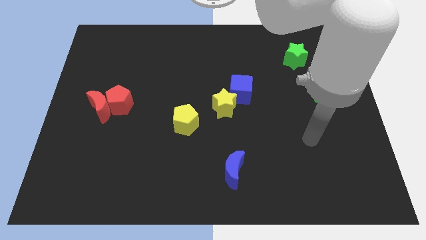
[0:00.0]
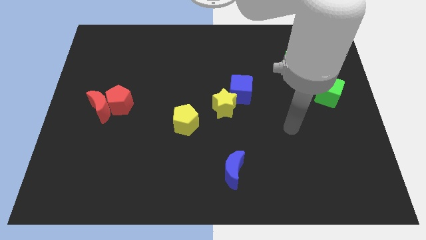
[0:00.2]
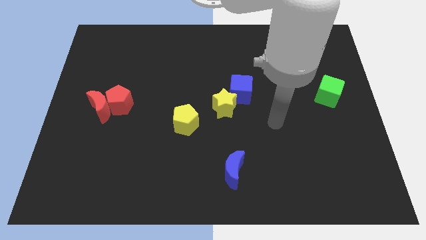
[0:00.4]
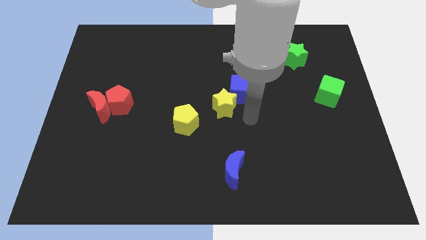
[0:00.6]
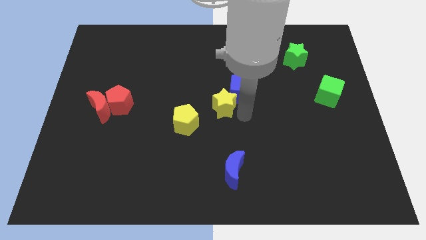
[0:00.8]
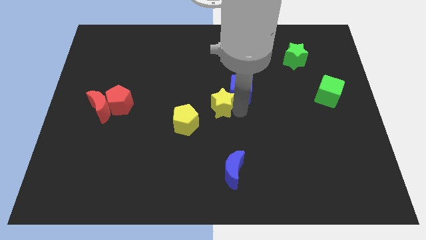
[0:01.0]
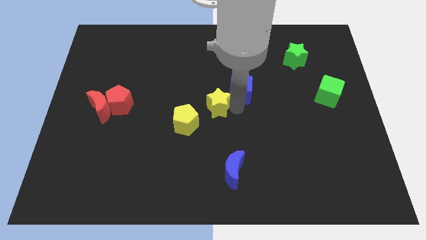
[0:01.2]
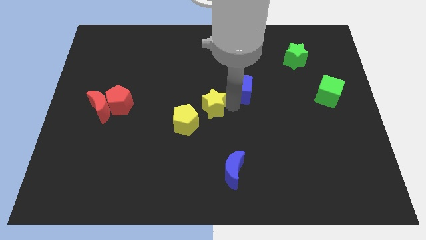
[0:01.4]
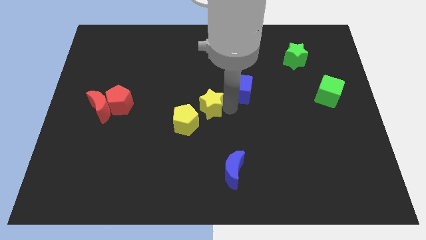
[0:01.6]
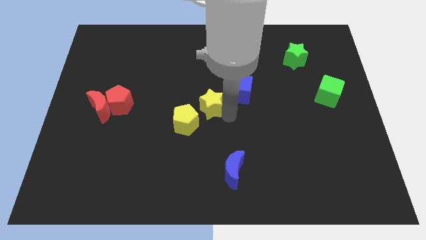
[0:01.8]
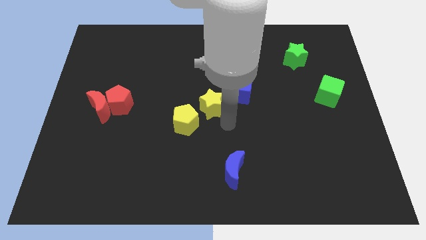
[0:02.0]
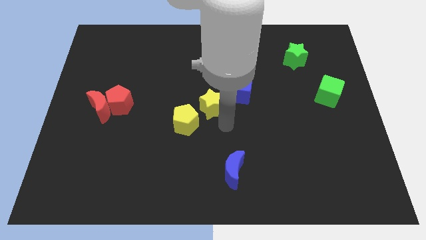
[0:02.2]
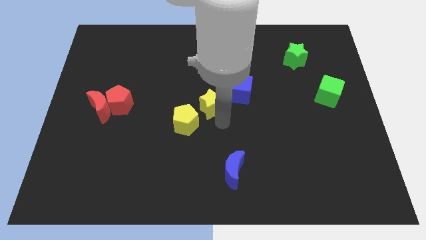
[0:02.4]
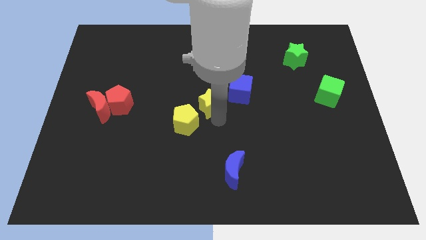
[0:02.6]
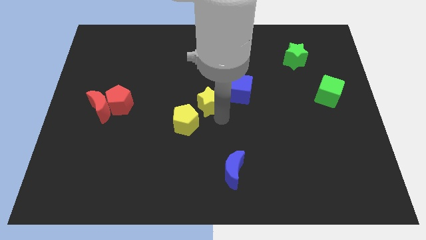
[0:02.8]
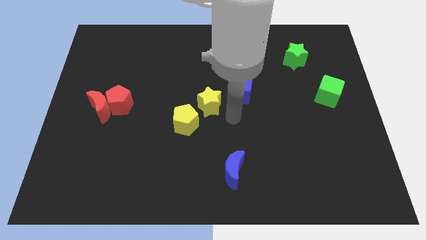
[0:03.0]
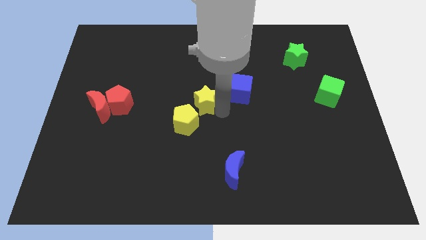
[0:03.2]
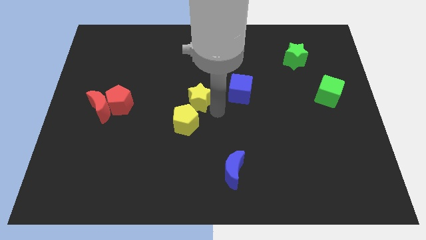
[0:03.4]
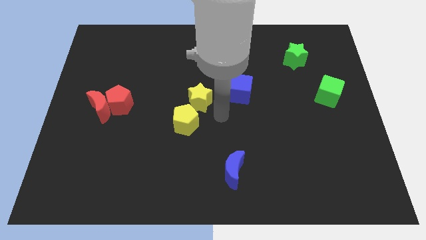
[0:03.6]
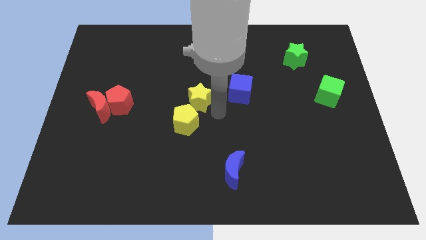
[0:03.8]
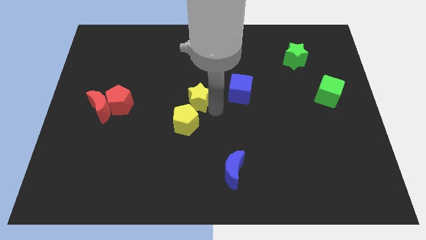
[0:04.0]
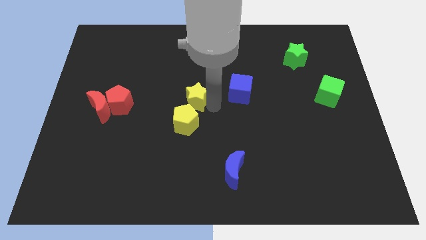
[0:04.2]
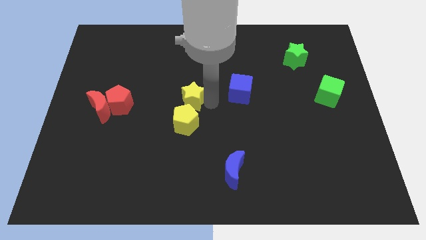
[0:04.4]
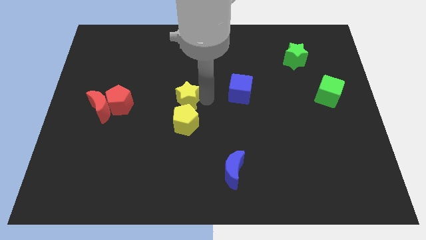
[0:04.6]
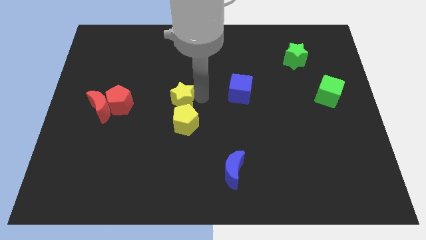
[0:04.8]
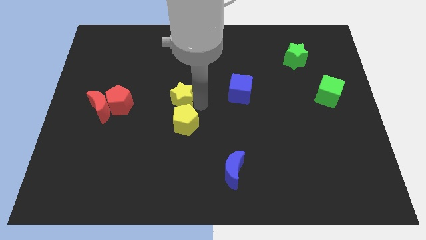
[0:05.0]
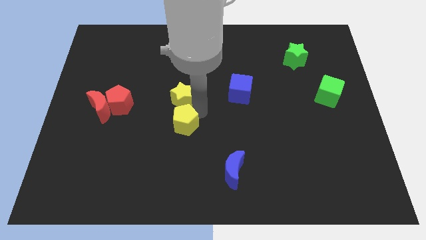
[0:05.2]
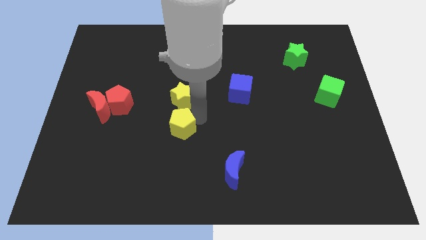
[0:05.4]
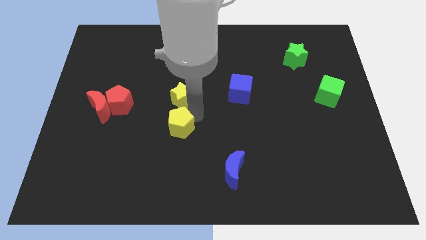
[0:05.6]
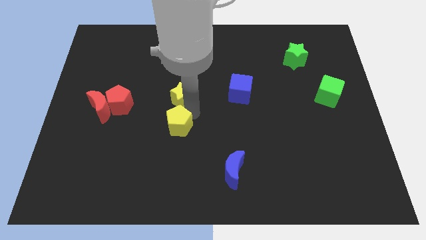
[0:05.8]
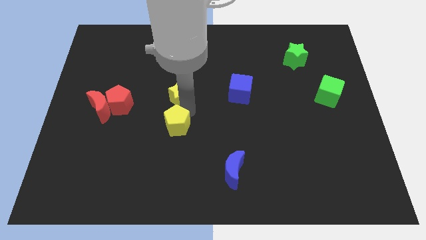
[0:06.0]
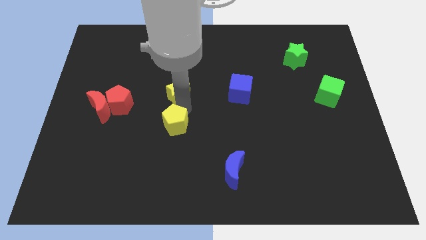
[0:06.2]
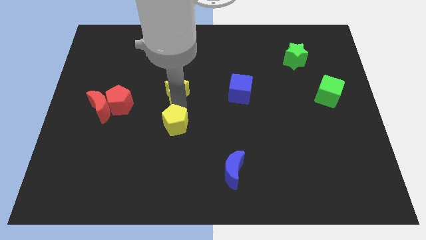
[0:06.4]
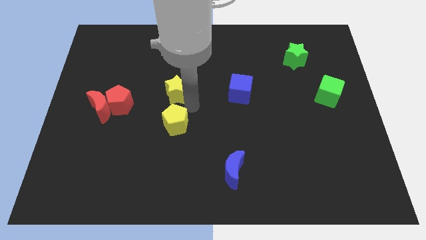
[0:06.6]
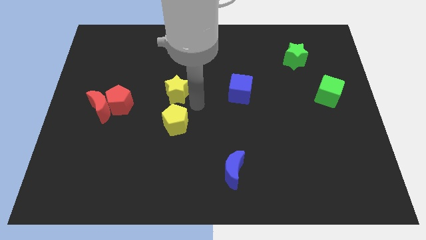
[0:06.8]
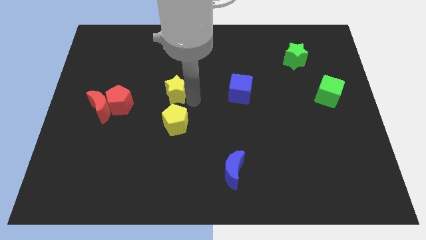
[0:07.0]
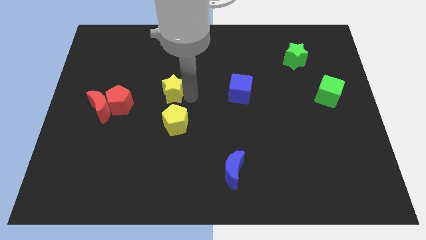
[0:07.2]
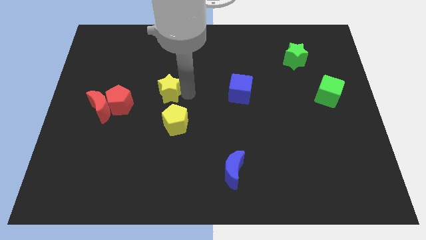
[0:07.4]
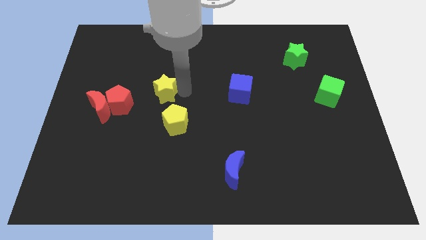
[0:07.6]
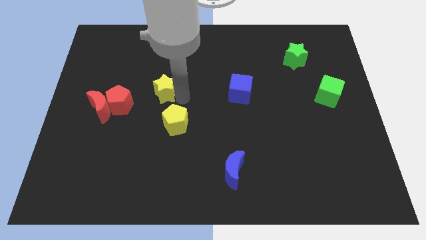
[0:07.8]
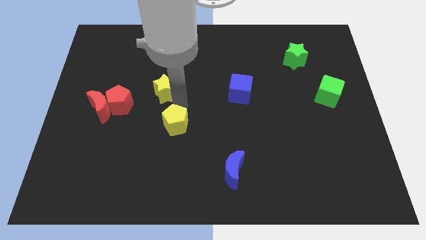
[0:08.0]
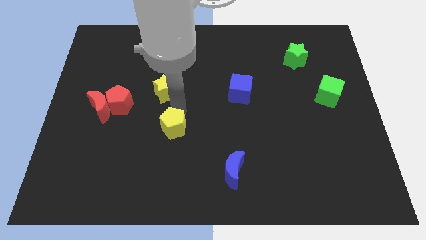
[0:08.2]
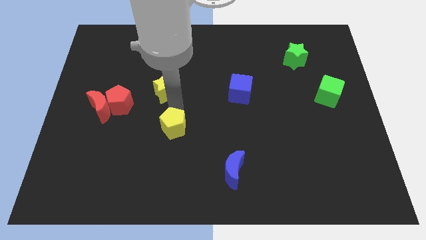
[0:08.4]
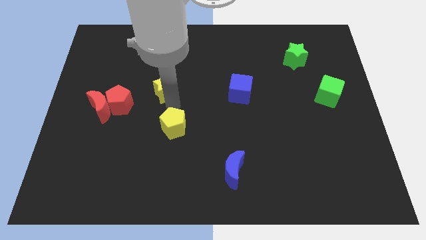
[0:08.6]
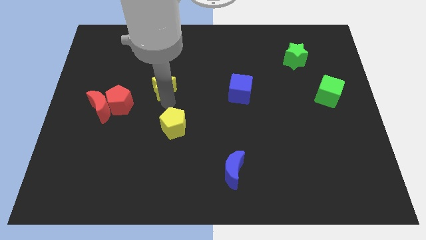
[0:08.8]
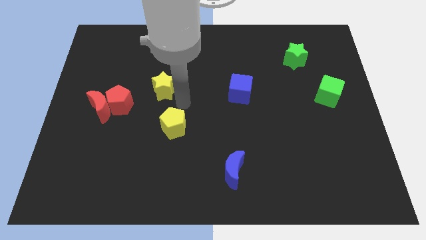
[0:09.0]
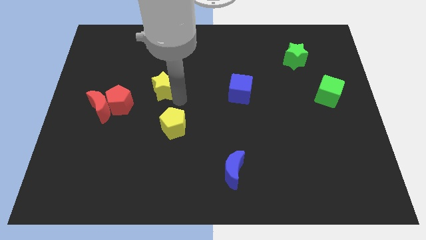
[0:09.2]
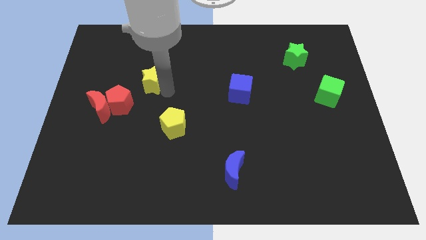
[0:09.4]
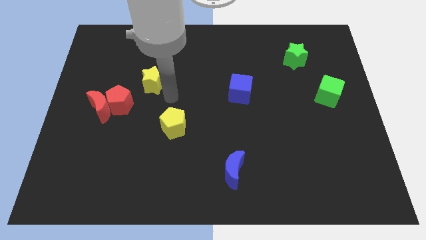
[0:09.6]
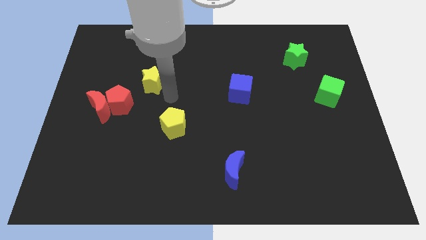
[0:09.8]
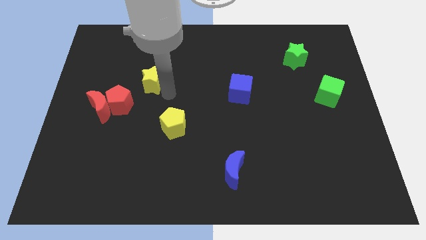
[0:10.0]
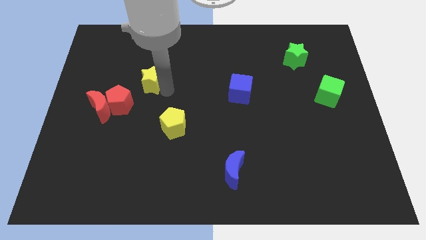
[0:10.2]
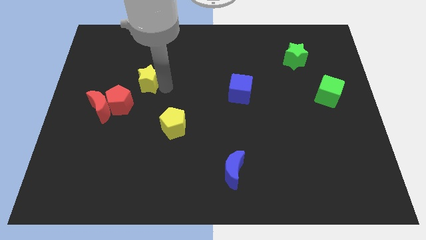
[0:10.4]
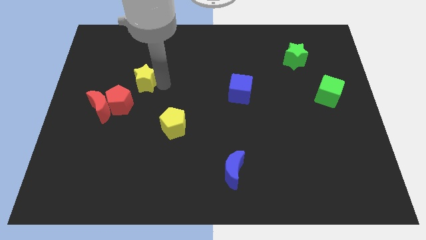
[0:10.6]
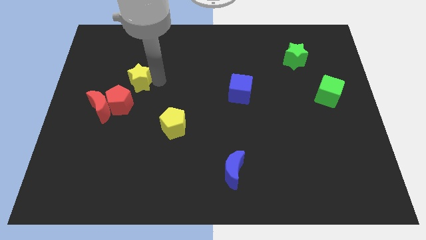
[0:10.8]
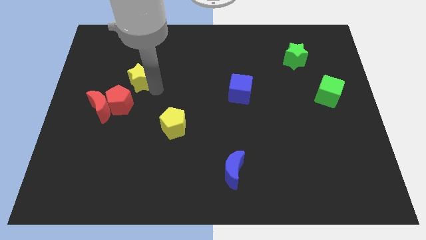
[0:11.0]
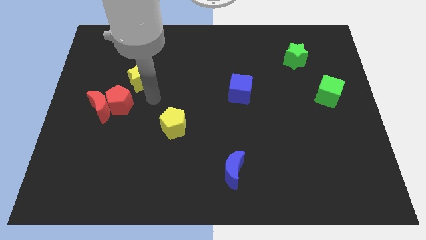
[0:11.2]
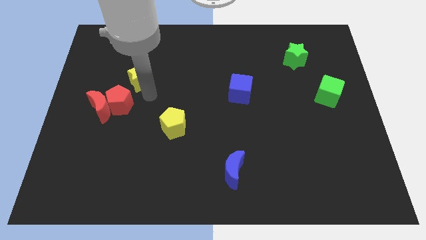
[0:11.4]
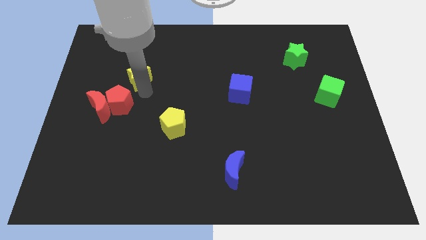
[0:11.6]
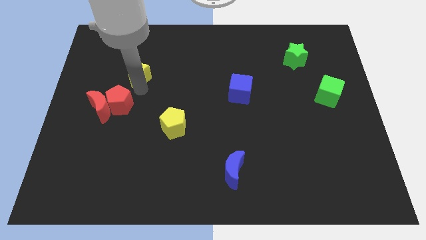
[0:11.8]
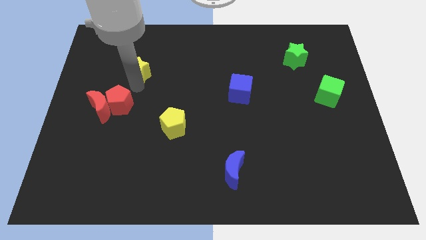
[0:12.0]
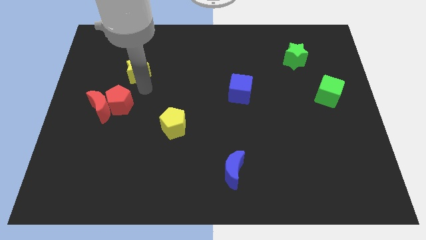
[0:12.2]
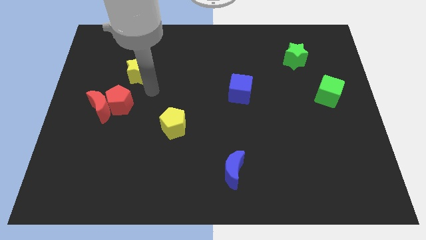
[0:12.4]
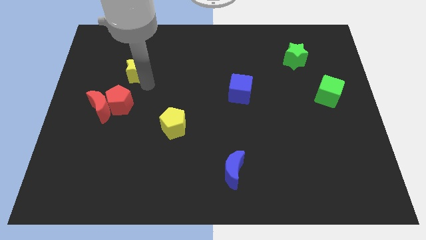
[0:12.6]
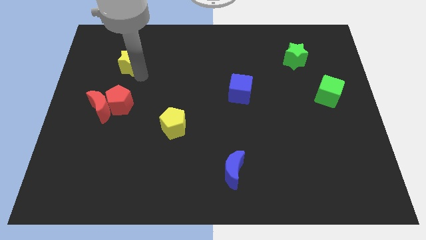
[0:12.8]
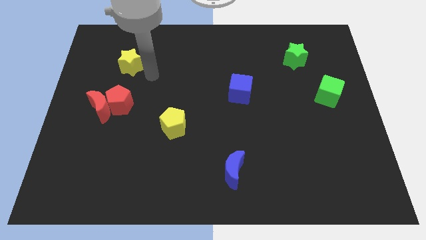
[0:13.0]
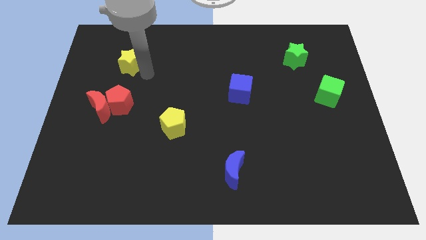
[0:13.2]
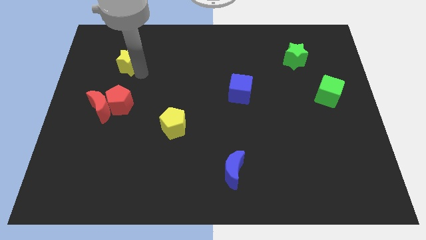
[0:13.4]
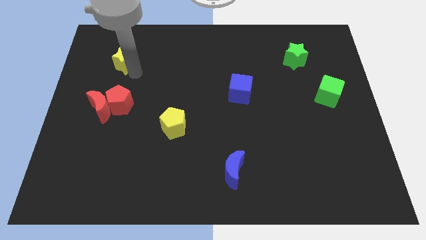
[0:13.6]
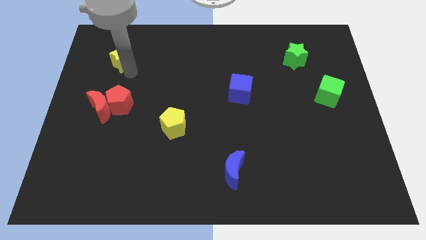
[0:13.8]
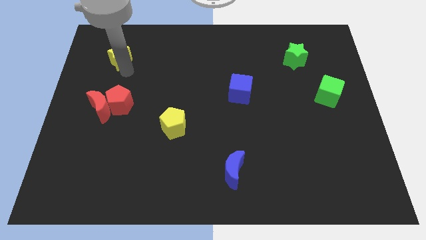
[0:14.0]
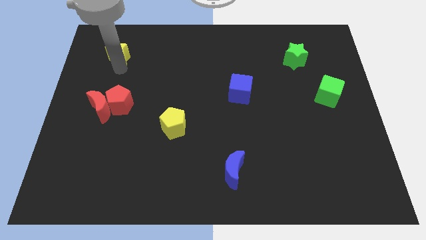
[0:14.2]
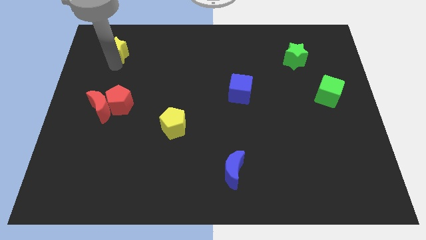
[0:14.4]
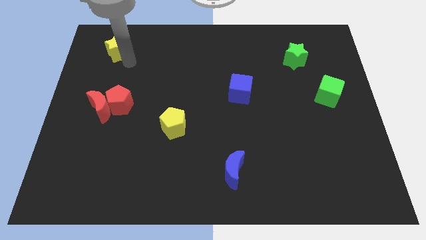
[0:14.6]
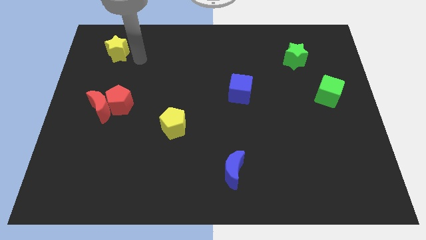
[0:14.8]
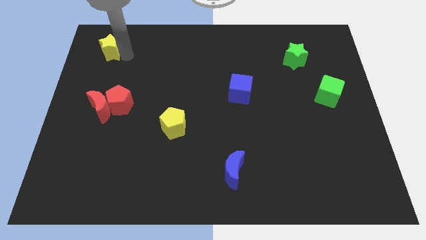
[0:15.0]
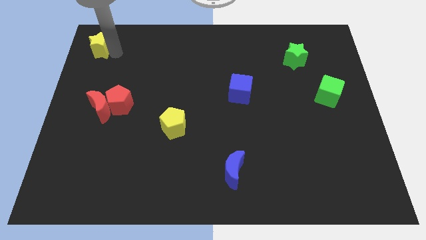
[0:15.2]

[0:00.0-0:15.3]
push the yellow star to the top left
